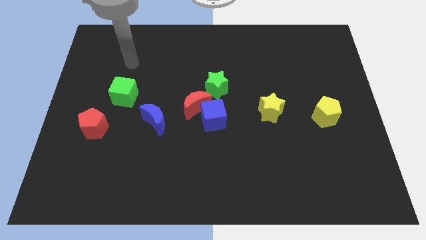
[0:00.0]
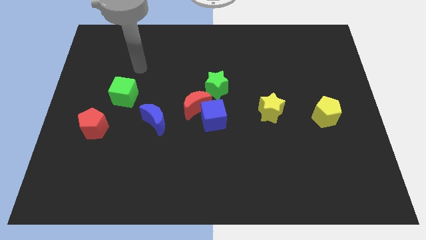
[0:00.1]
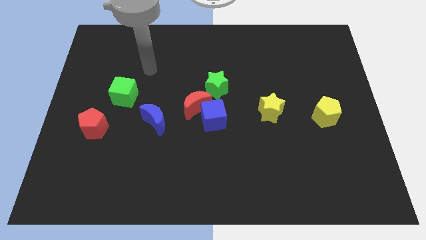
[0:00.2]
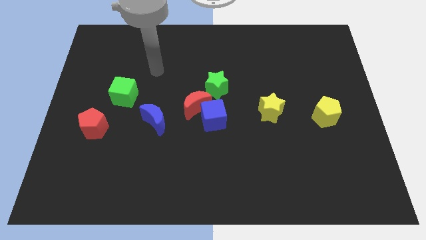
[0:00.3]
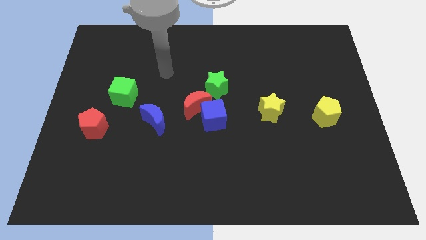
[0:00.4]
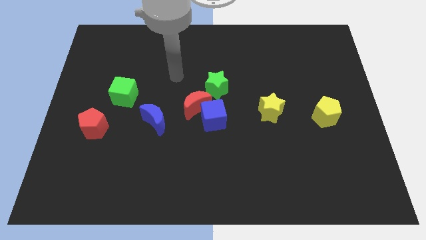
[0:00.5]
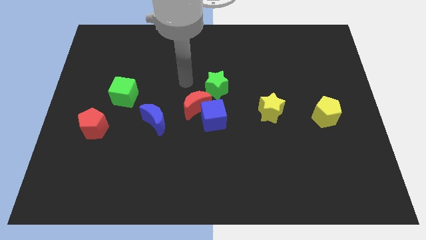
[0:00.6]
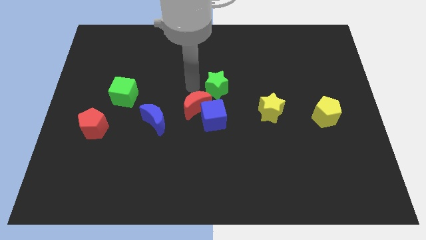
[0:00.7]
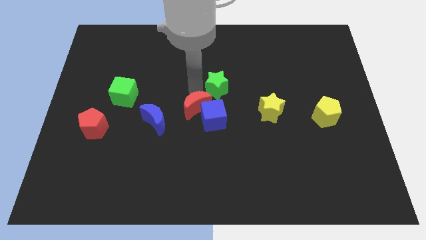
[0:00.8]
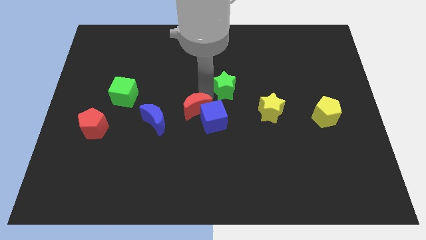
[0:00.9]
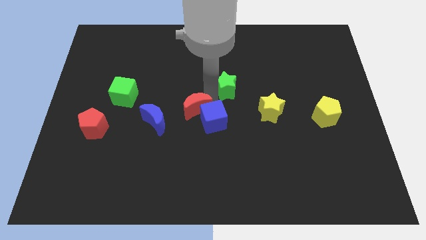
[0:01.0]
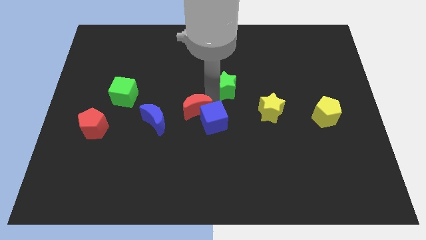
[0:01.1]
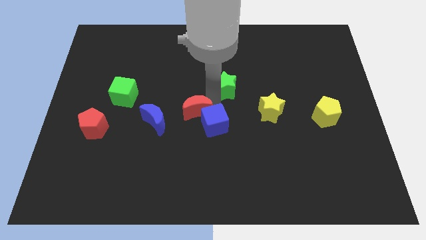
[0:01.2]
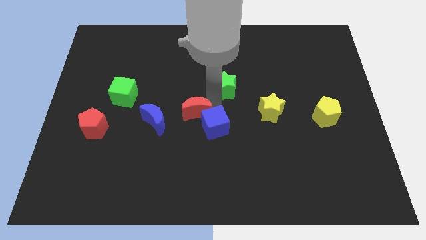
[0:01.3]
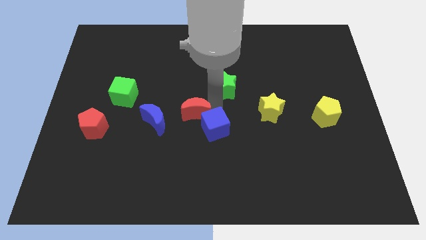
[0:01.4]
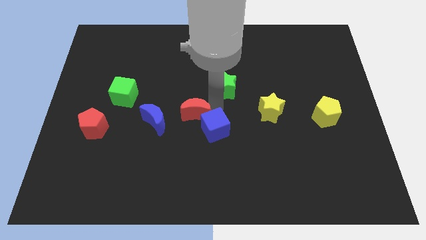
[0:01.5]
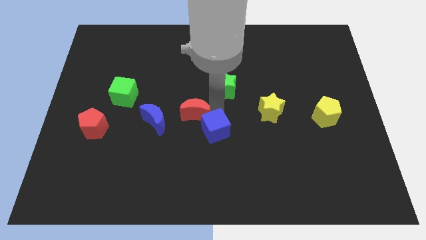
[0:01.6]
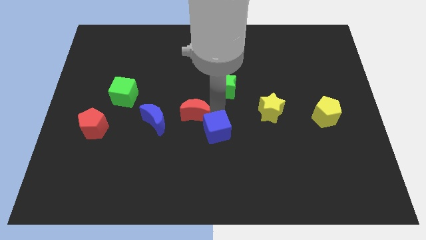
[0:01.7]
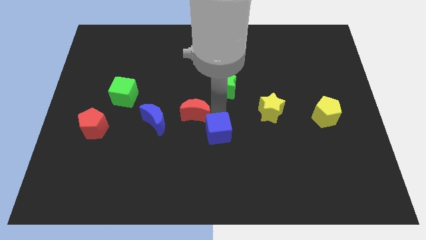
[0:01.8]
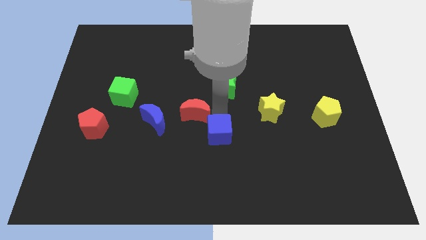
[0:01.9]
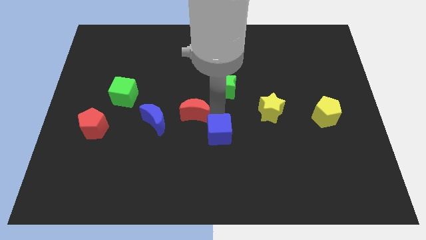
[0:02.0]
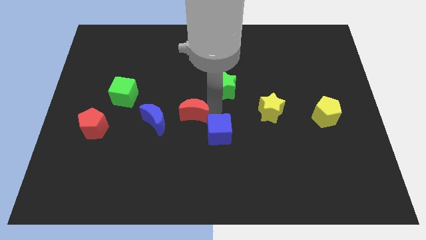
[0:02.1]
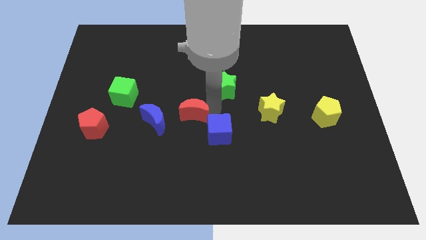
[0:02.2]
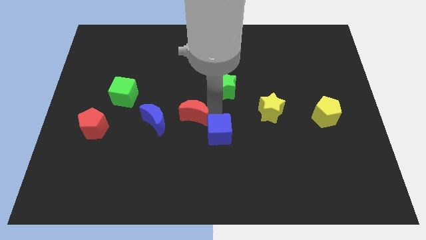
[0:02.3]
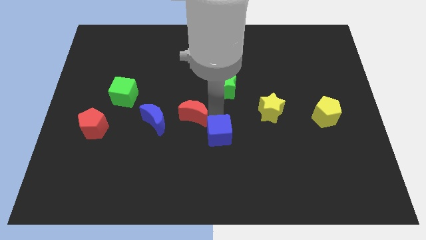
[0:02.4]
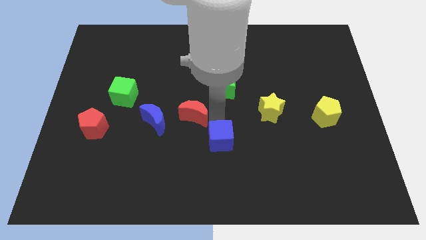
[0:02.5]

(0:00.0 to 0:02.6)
pull the blue cube apart from the red moon and green star

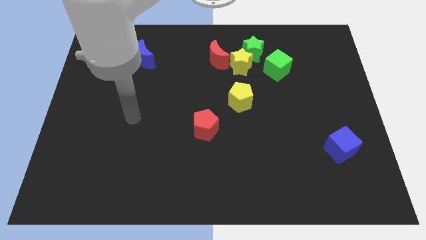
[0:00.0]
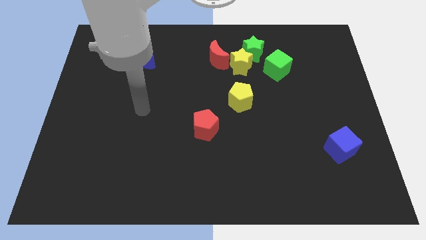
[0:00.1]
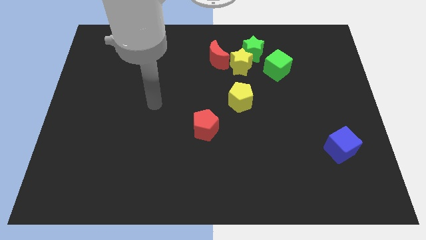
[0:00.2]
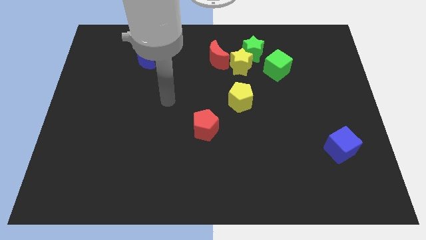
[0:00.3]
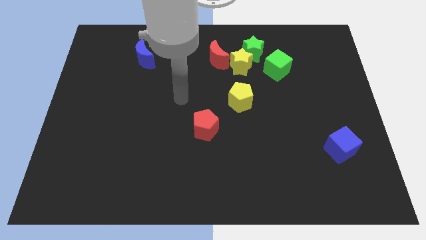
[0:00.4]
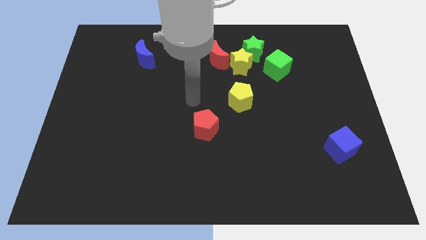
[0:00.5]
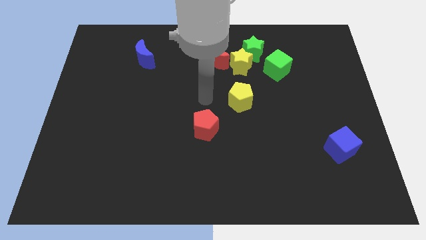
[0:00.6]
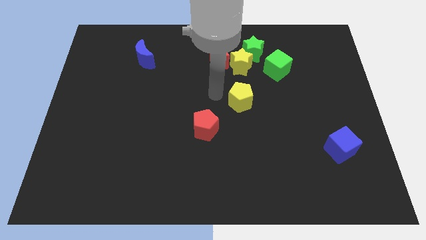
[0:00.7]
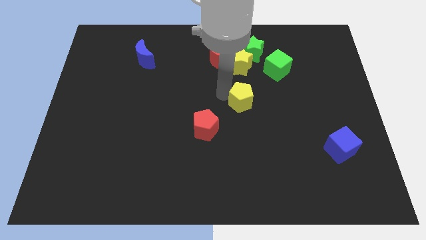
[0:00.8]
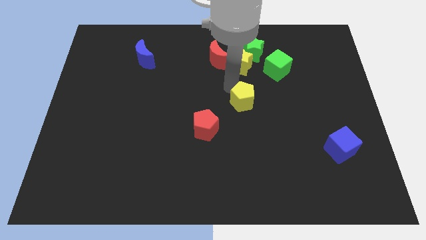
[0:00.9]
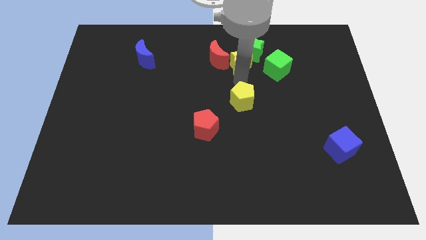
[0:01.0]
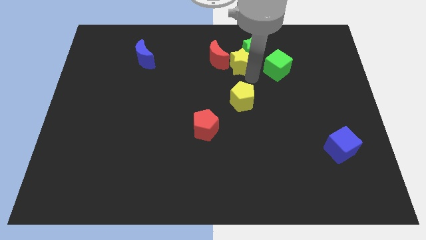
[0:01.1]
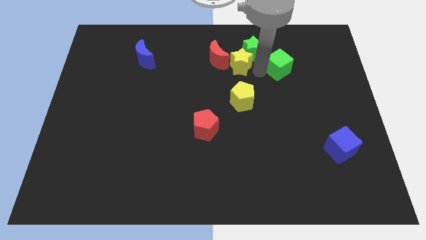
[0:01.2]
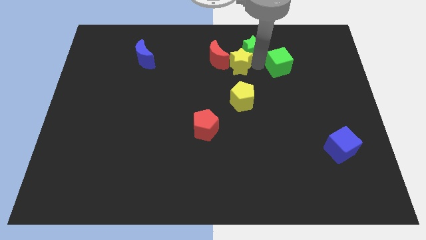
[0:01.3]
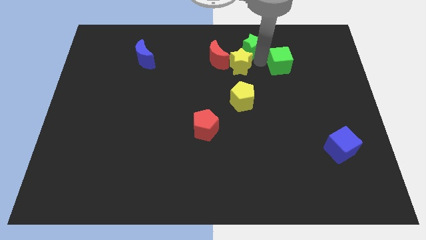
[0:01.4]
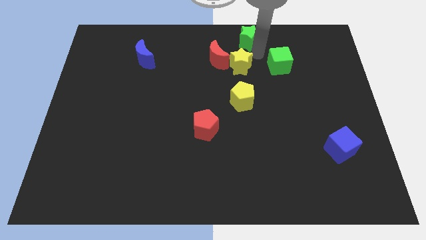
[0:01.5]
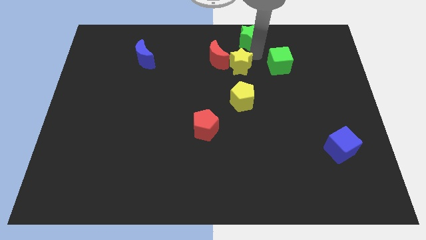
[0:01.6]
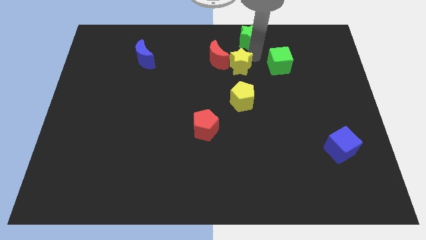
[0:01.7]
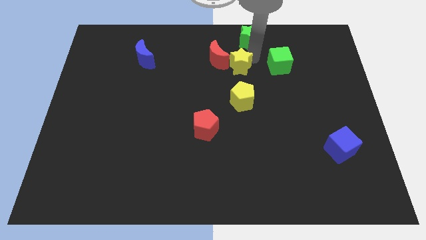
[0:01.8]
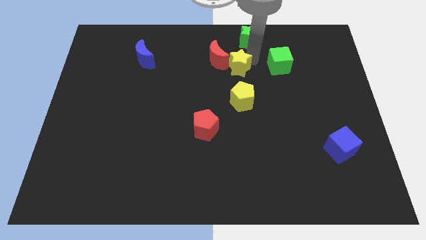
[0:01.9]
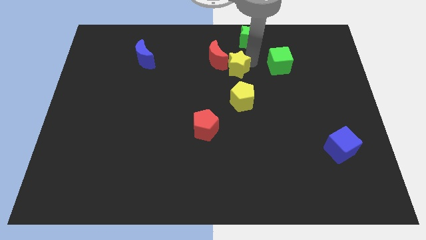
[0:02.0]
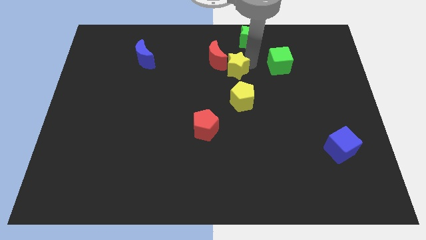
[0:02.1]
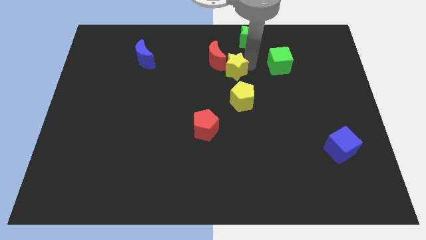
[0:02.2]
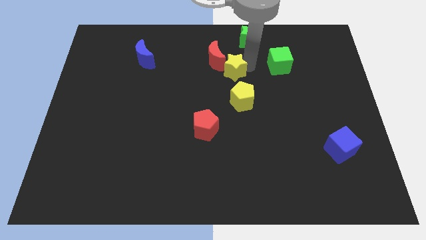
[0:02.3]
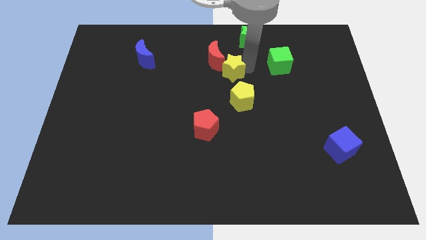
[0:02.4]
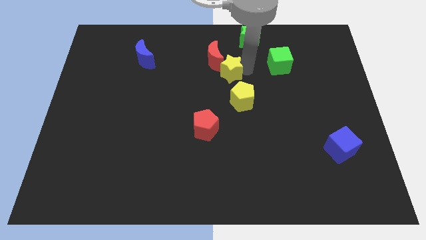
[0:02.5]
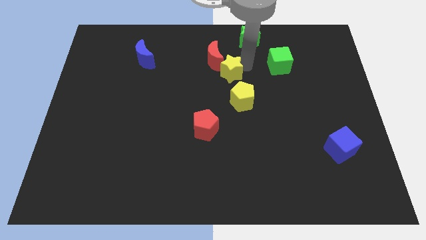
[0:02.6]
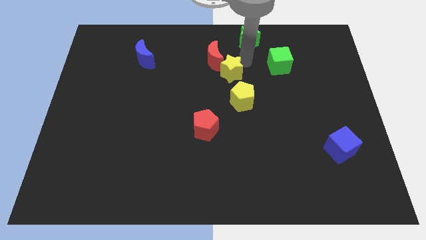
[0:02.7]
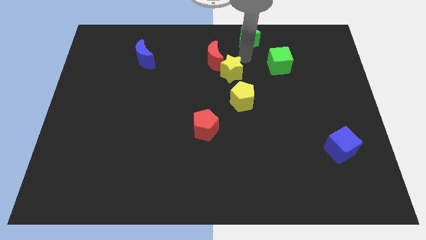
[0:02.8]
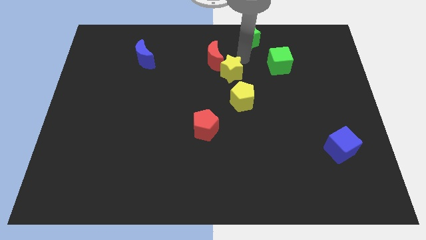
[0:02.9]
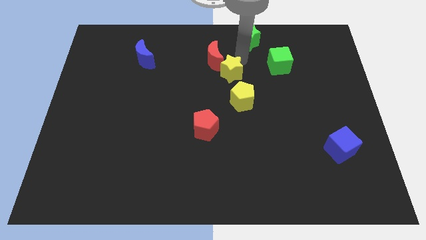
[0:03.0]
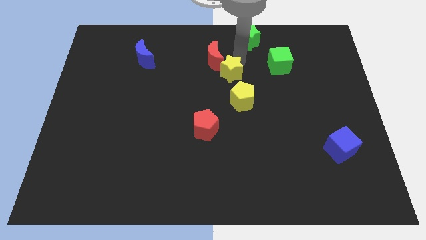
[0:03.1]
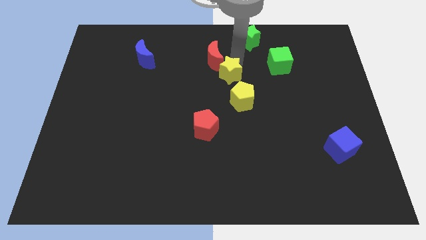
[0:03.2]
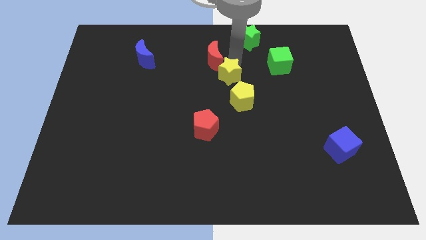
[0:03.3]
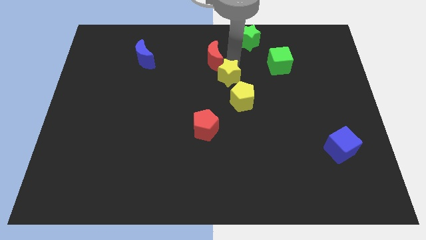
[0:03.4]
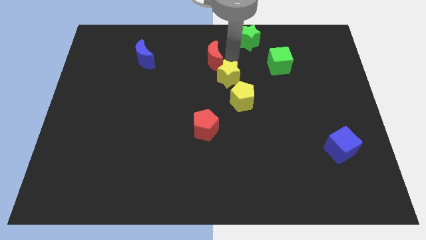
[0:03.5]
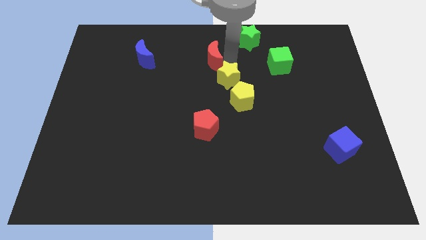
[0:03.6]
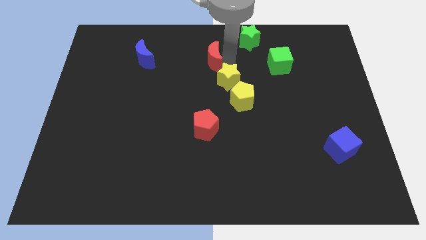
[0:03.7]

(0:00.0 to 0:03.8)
pull the yellow star apart from the clump

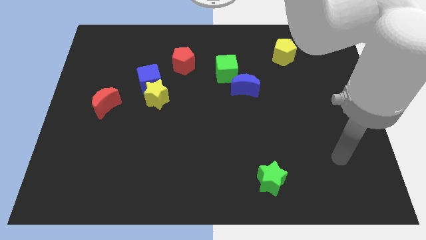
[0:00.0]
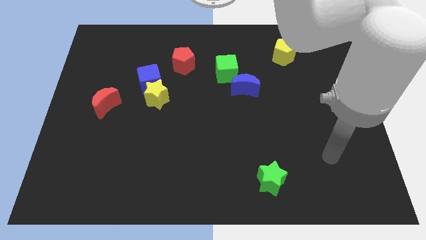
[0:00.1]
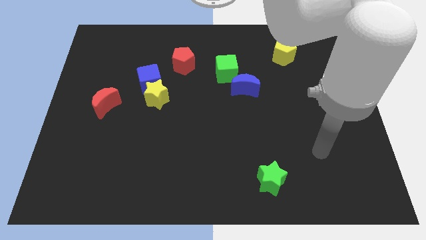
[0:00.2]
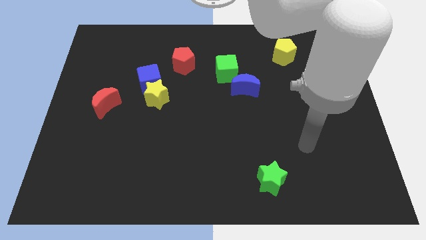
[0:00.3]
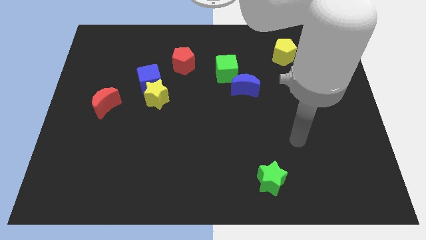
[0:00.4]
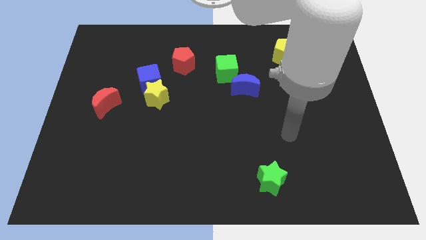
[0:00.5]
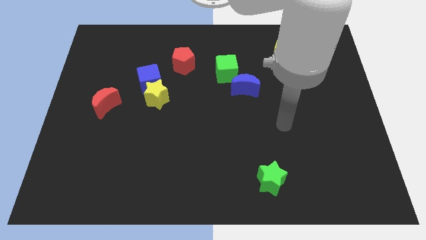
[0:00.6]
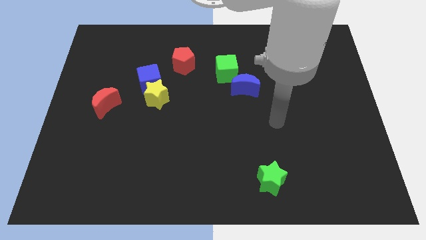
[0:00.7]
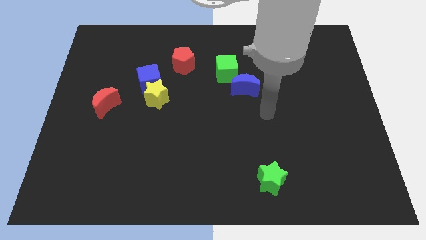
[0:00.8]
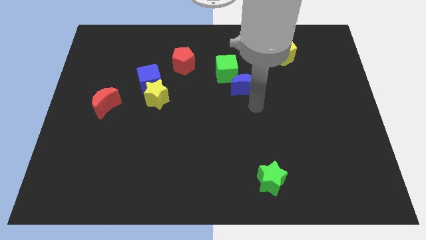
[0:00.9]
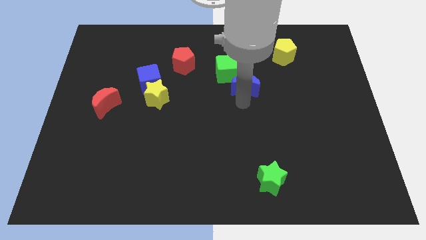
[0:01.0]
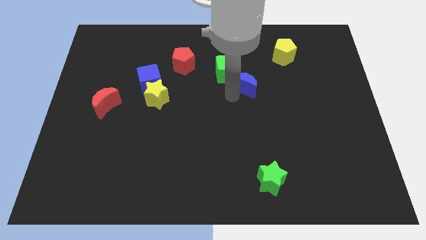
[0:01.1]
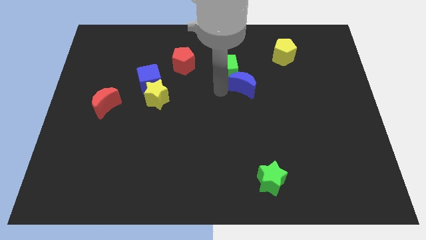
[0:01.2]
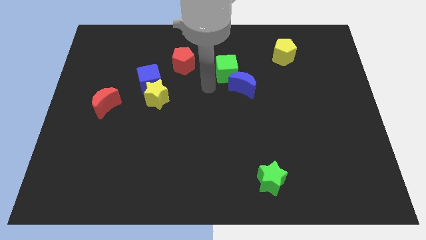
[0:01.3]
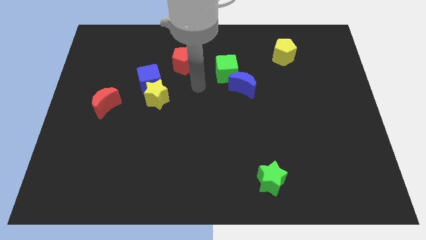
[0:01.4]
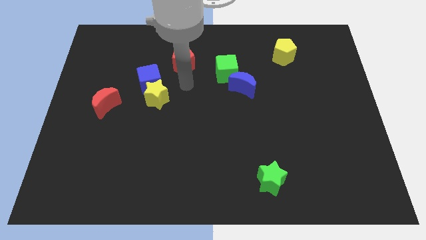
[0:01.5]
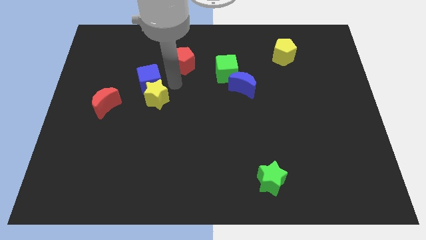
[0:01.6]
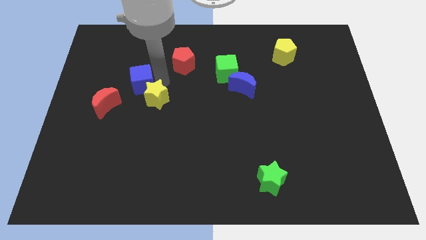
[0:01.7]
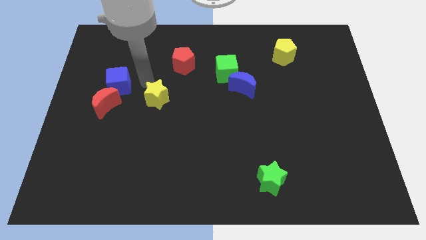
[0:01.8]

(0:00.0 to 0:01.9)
move the yellow star away from the blue cube

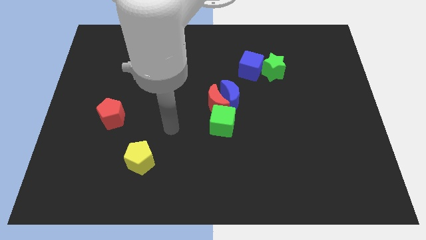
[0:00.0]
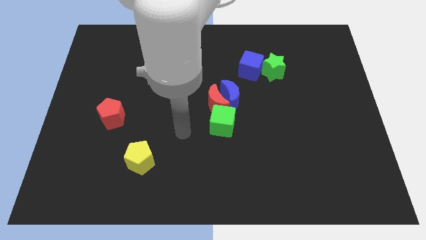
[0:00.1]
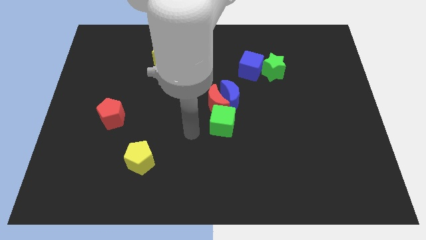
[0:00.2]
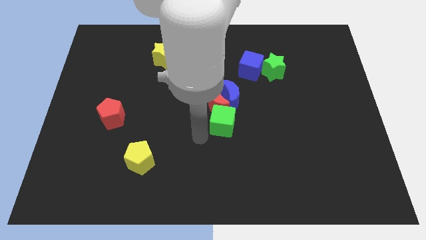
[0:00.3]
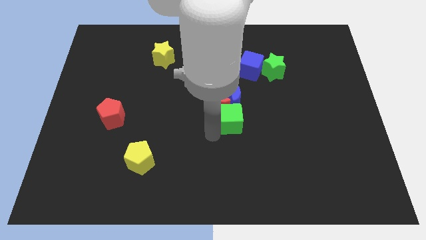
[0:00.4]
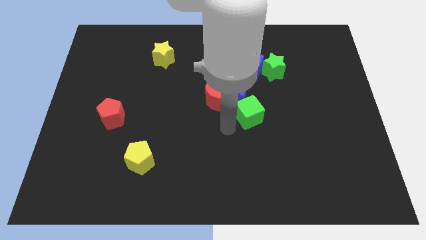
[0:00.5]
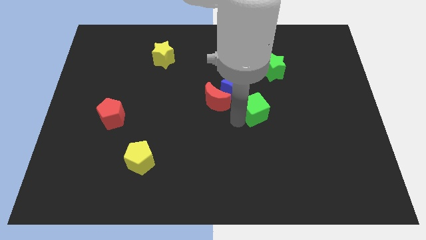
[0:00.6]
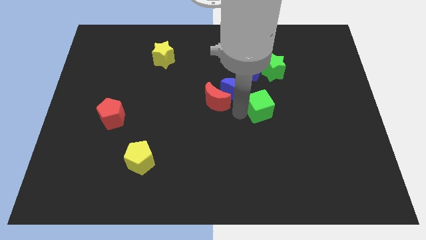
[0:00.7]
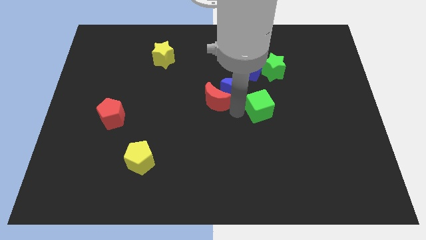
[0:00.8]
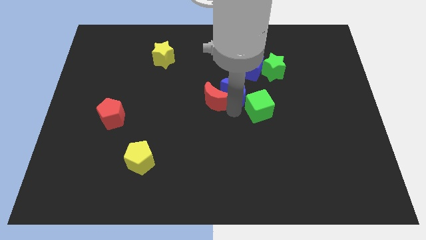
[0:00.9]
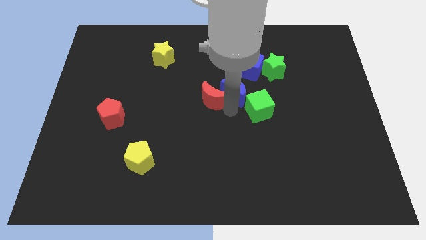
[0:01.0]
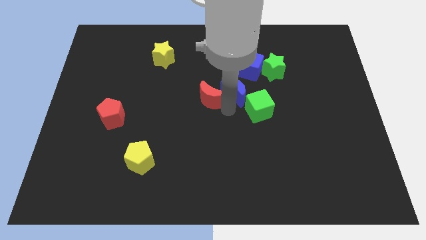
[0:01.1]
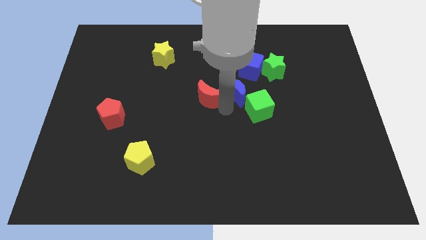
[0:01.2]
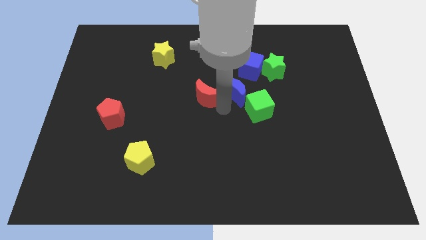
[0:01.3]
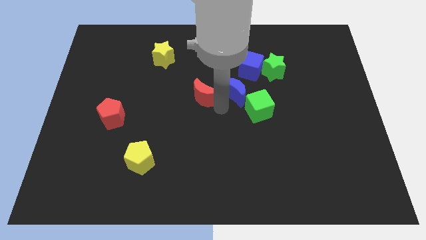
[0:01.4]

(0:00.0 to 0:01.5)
separate the red moon from the blue moon and green cube
